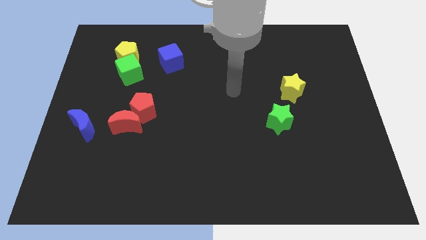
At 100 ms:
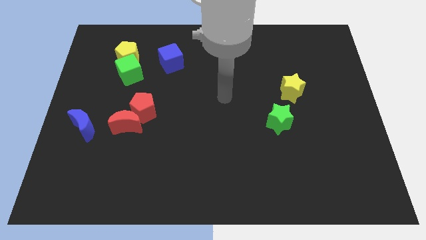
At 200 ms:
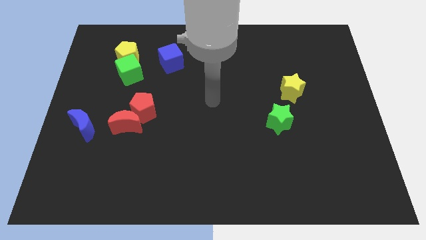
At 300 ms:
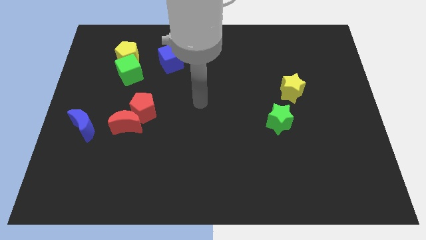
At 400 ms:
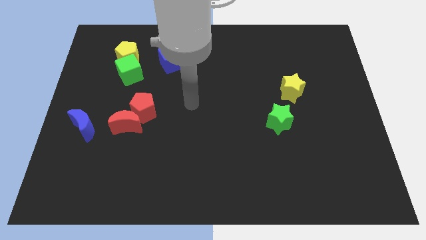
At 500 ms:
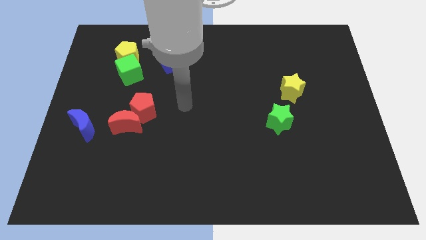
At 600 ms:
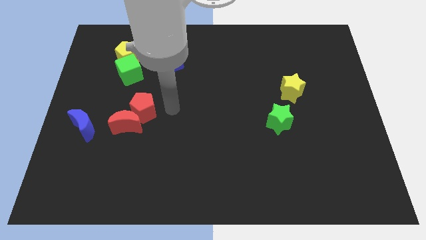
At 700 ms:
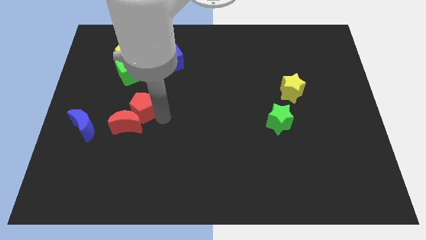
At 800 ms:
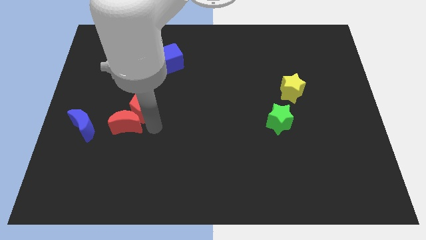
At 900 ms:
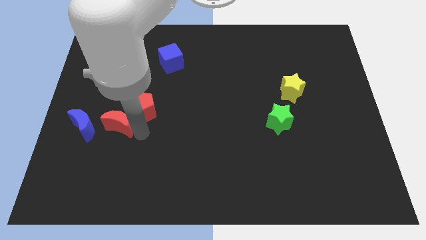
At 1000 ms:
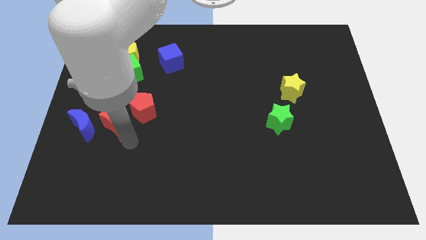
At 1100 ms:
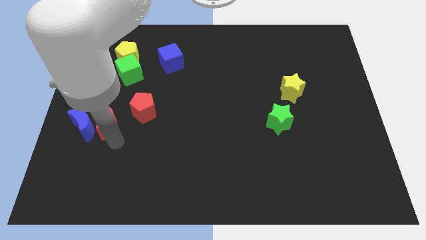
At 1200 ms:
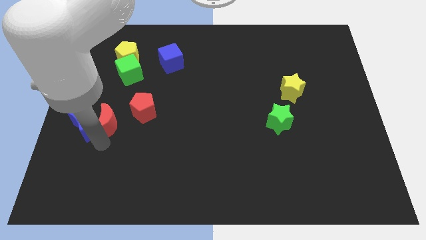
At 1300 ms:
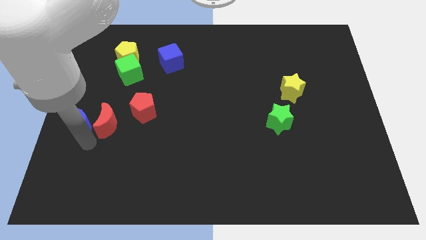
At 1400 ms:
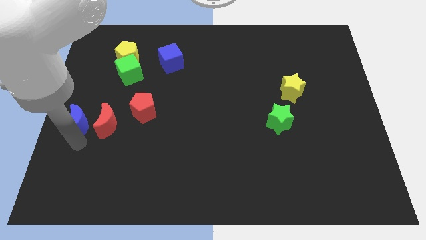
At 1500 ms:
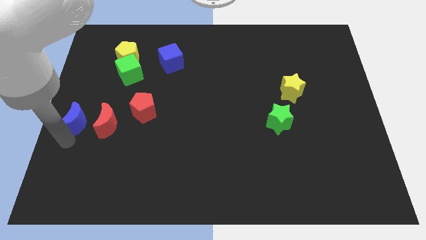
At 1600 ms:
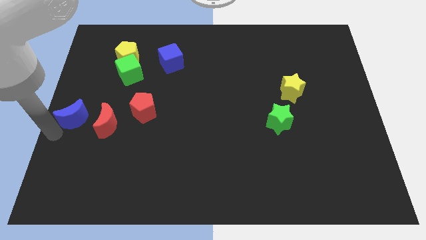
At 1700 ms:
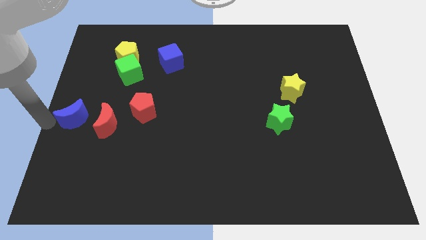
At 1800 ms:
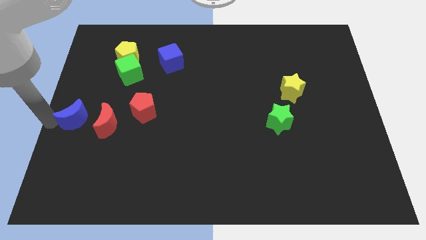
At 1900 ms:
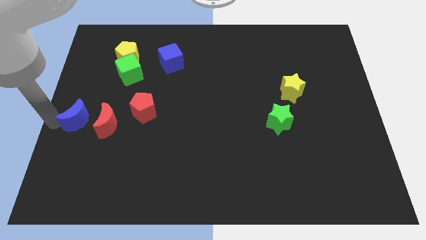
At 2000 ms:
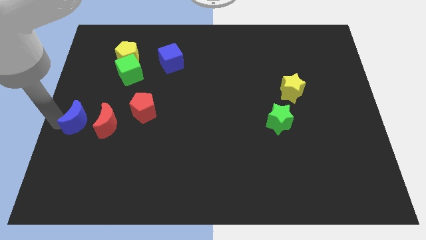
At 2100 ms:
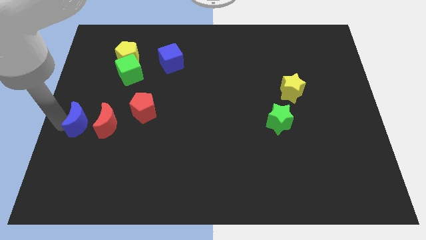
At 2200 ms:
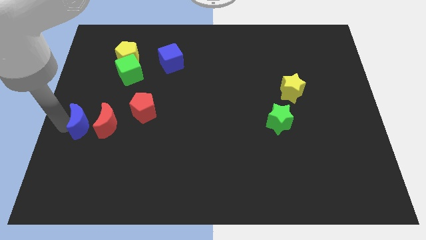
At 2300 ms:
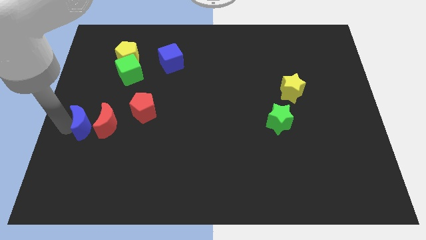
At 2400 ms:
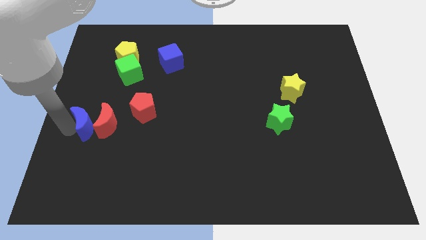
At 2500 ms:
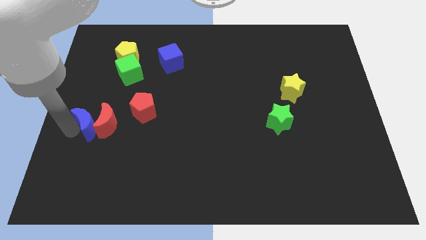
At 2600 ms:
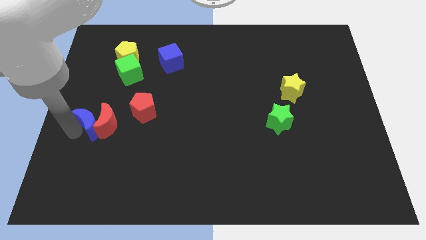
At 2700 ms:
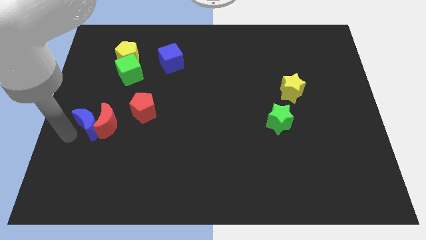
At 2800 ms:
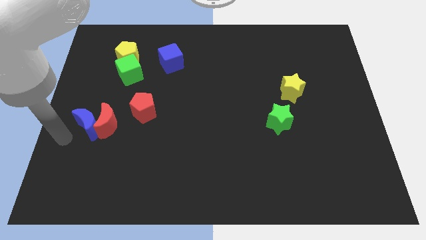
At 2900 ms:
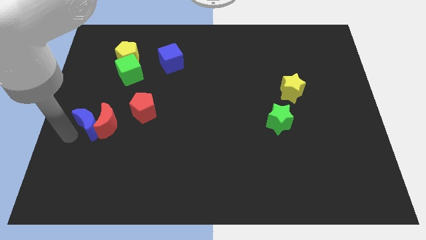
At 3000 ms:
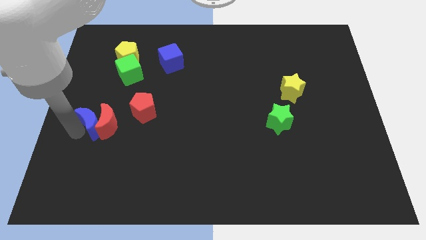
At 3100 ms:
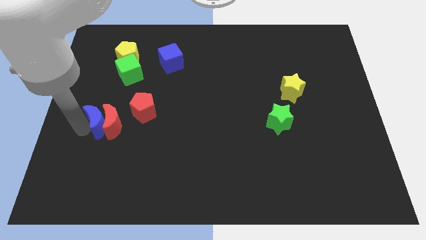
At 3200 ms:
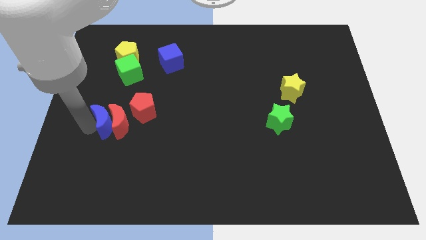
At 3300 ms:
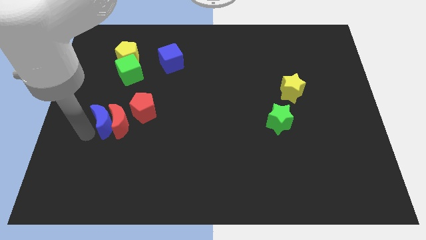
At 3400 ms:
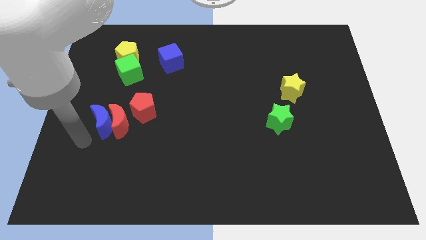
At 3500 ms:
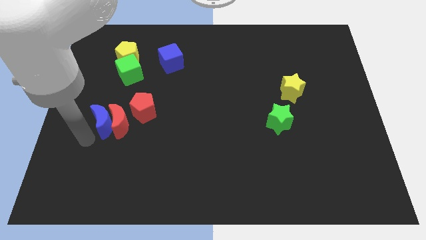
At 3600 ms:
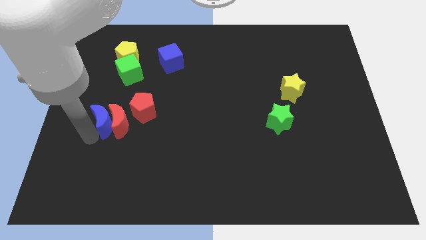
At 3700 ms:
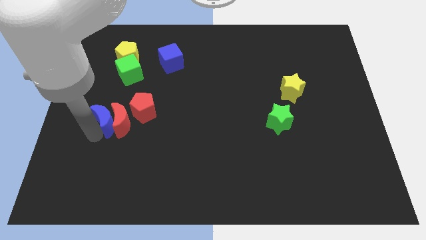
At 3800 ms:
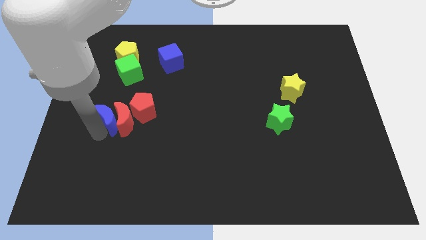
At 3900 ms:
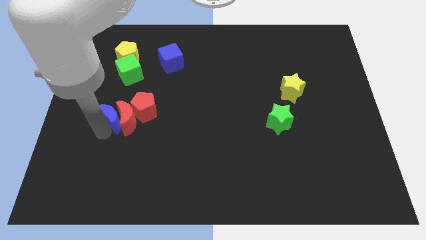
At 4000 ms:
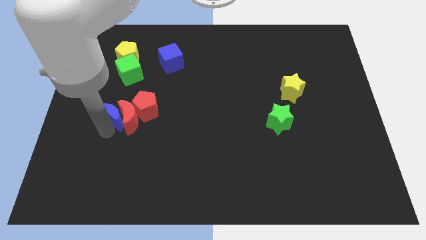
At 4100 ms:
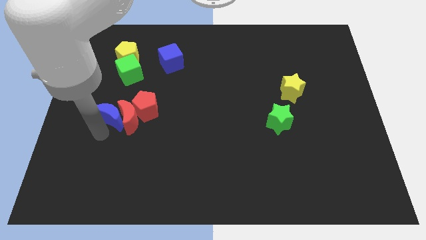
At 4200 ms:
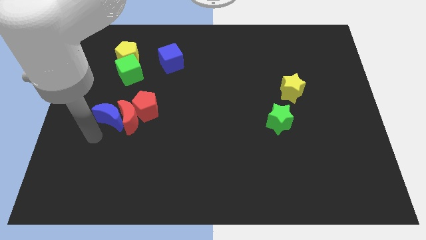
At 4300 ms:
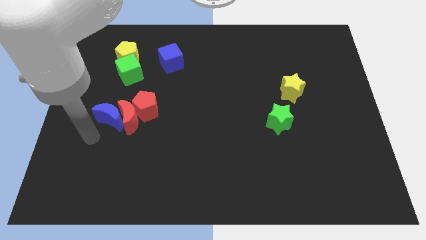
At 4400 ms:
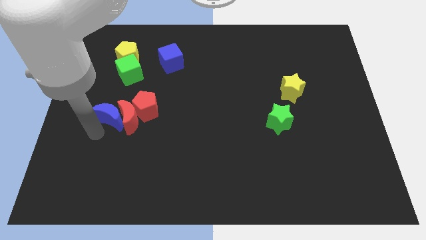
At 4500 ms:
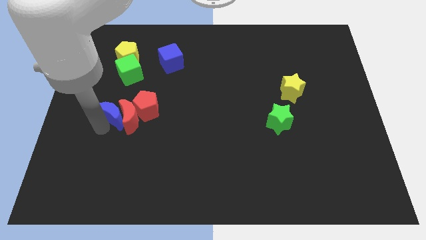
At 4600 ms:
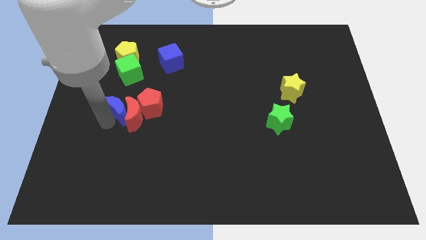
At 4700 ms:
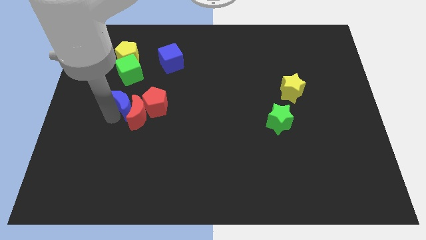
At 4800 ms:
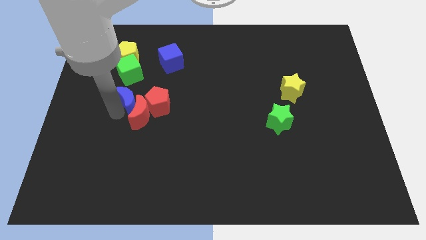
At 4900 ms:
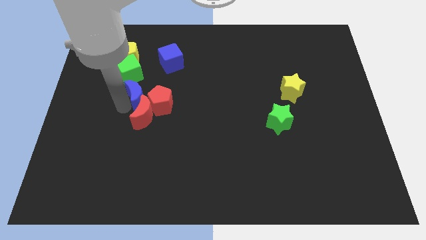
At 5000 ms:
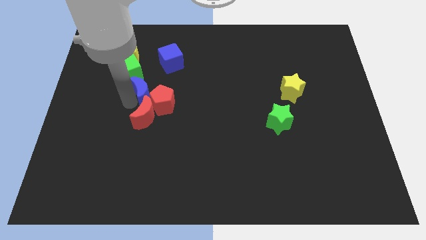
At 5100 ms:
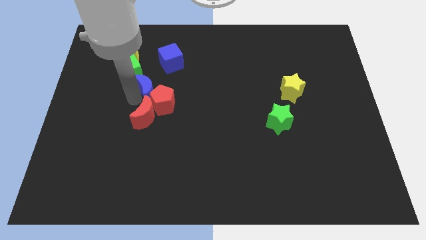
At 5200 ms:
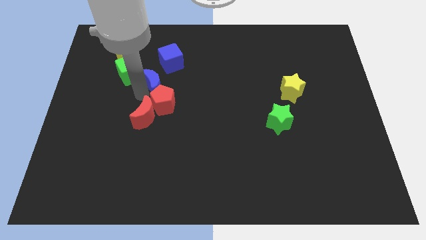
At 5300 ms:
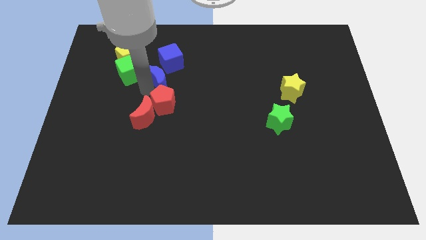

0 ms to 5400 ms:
move the blue moon diagonally upwards and right

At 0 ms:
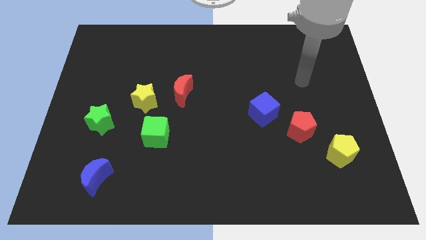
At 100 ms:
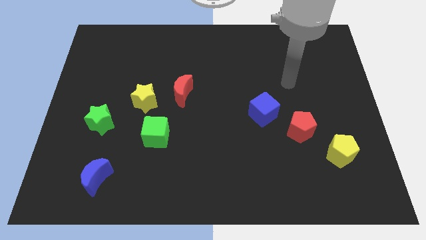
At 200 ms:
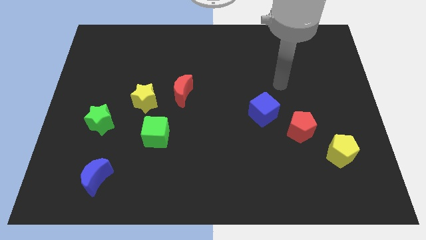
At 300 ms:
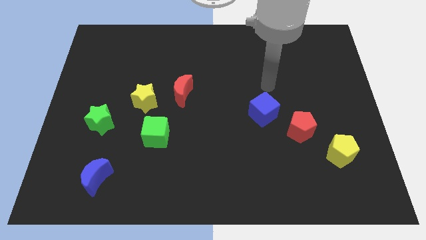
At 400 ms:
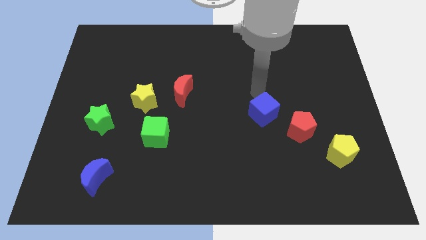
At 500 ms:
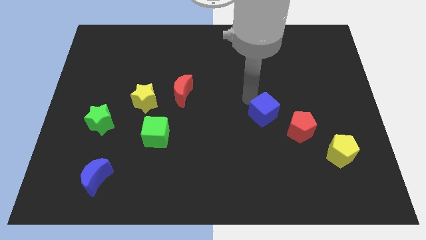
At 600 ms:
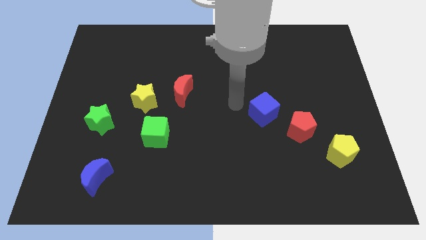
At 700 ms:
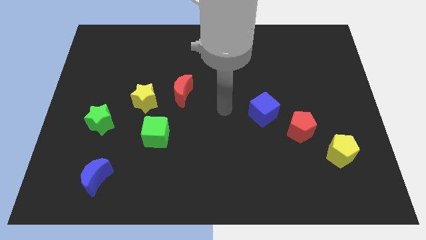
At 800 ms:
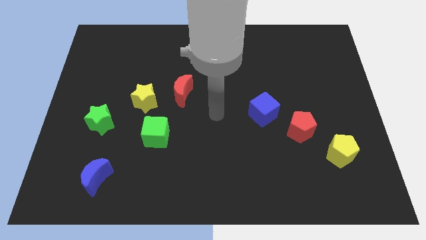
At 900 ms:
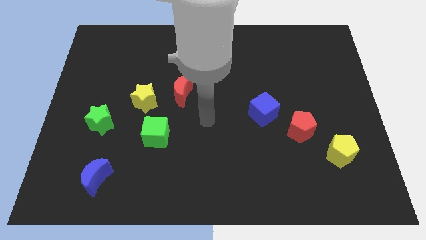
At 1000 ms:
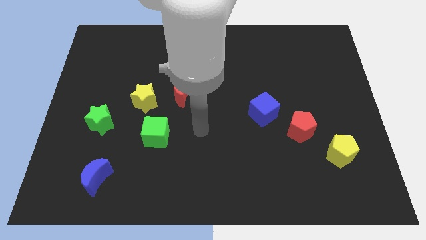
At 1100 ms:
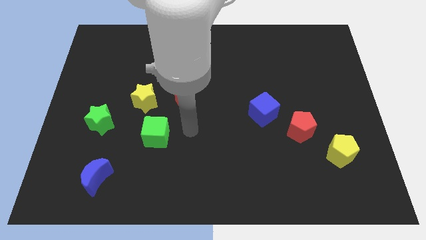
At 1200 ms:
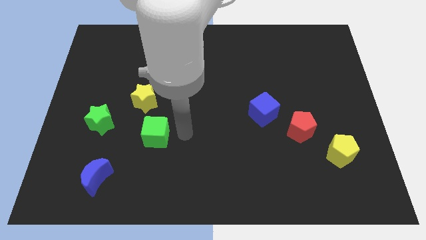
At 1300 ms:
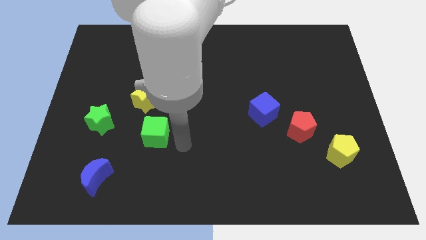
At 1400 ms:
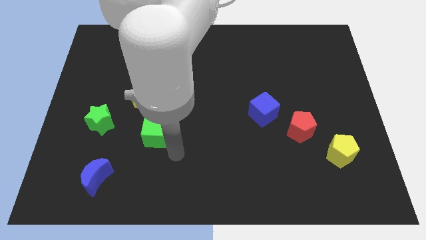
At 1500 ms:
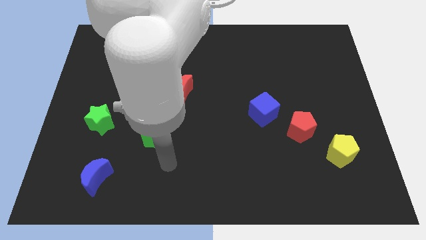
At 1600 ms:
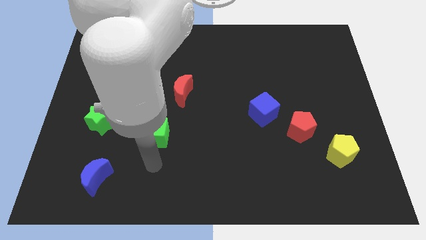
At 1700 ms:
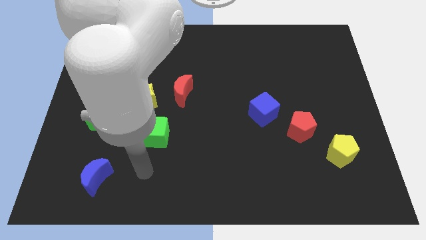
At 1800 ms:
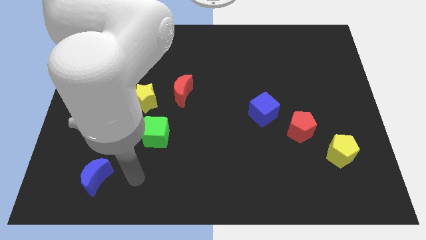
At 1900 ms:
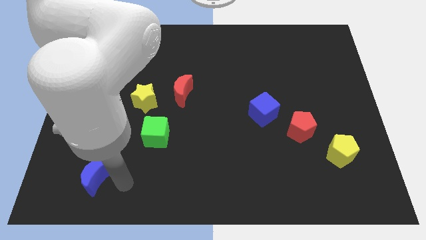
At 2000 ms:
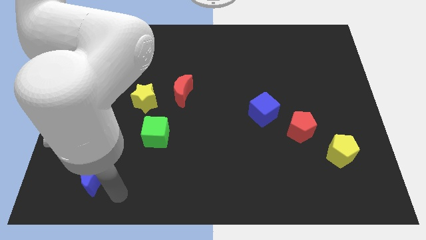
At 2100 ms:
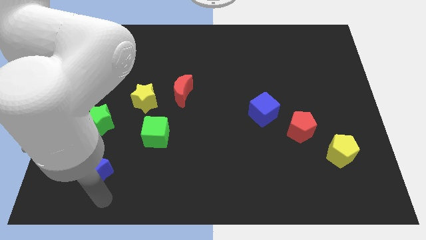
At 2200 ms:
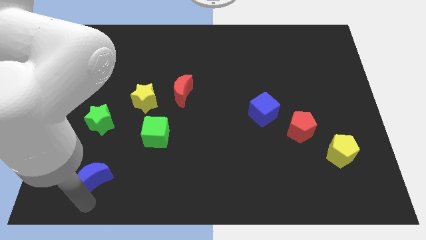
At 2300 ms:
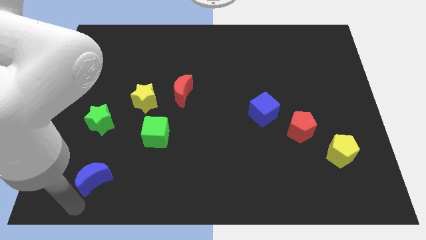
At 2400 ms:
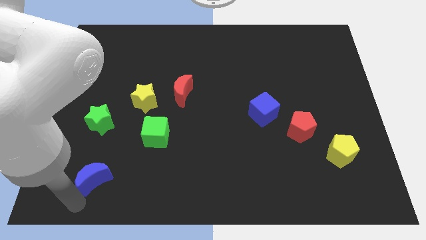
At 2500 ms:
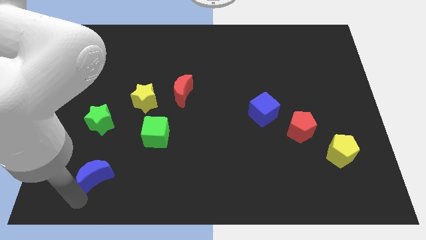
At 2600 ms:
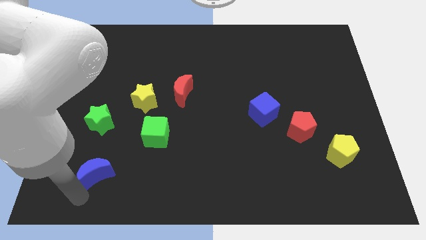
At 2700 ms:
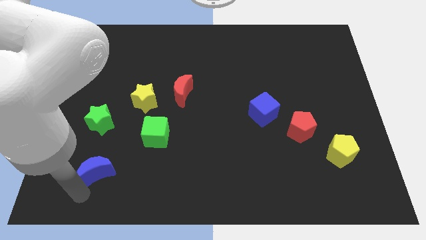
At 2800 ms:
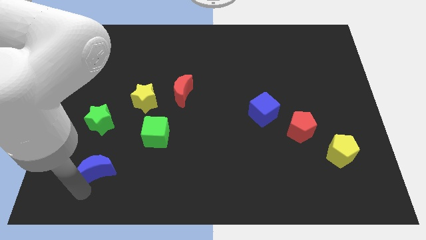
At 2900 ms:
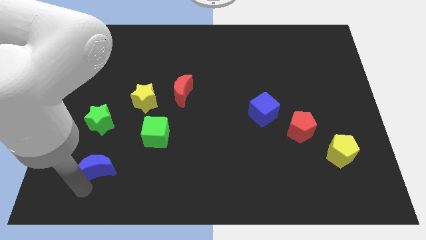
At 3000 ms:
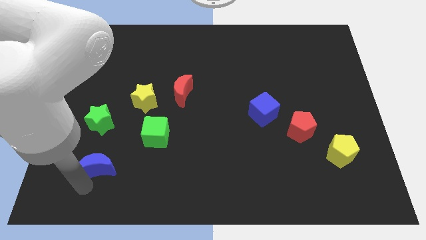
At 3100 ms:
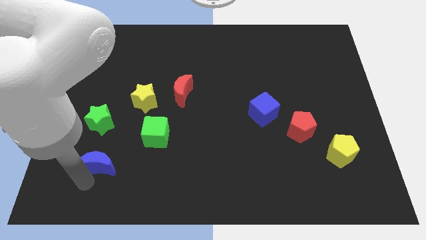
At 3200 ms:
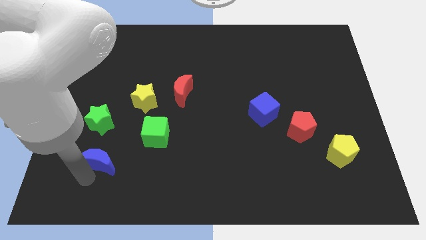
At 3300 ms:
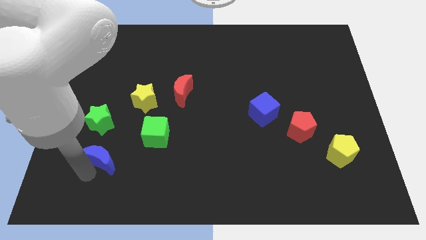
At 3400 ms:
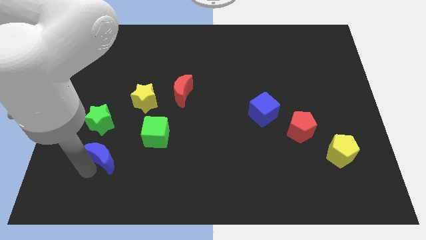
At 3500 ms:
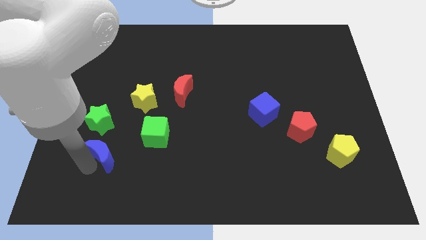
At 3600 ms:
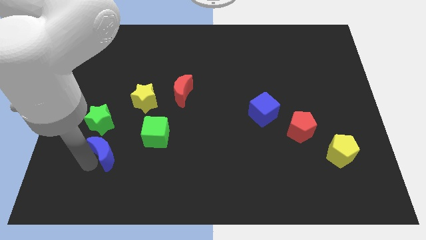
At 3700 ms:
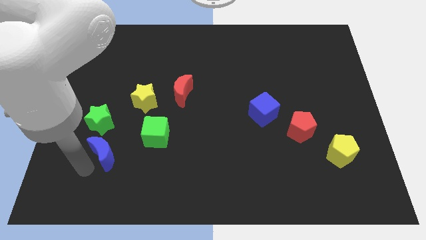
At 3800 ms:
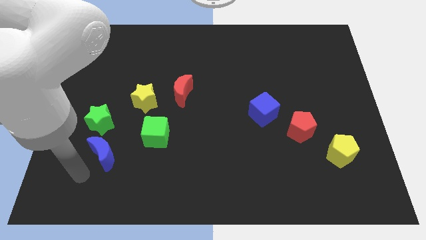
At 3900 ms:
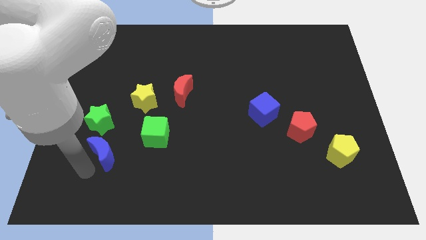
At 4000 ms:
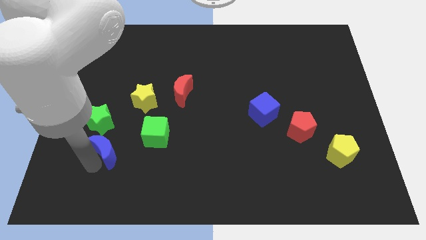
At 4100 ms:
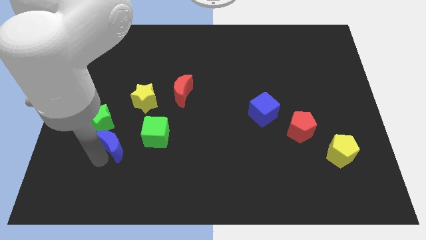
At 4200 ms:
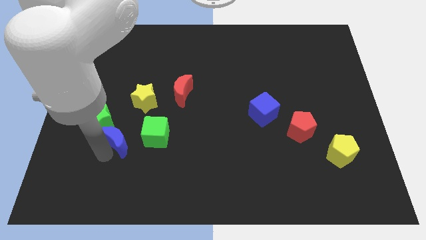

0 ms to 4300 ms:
slightly move the blue moon diagonally up and right
